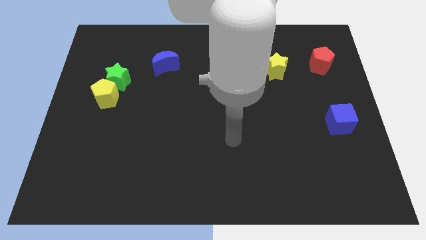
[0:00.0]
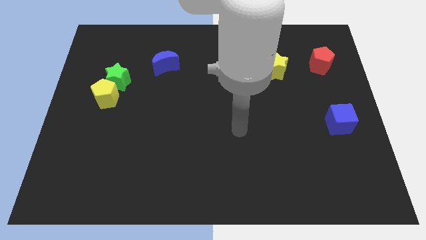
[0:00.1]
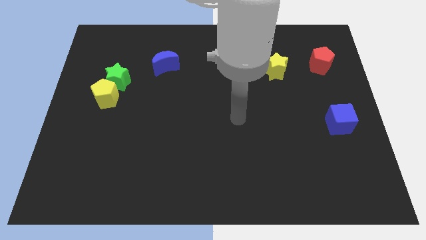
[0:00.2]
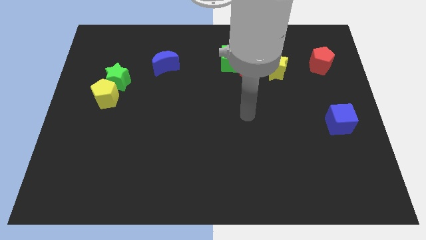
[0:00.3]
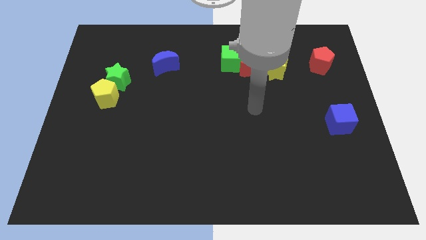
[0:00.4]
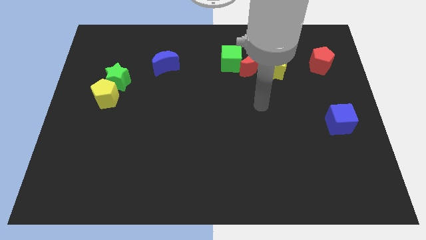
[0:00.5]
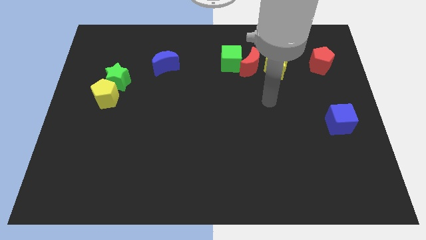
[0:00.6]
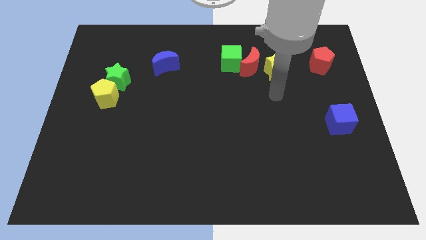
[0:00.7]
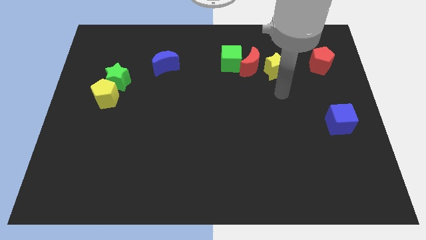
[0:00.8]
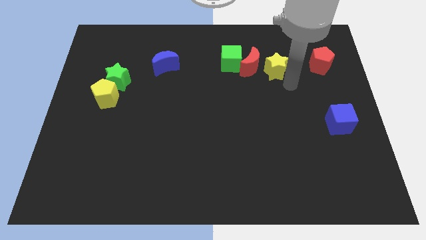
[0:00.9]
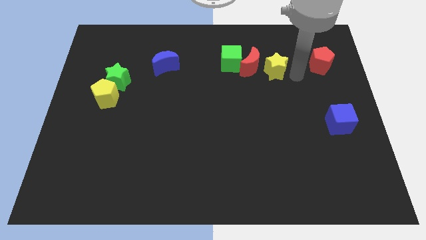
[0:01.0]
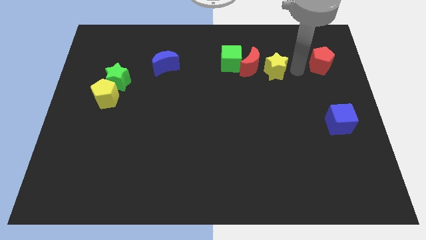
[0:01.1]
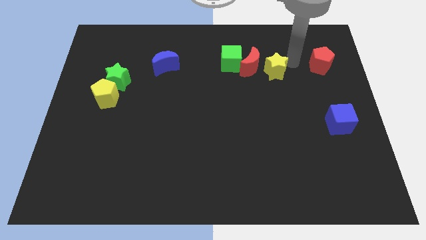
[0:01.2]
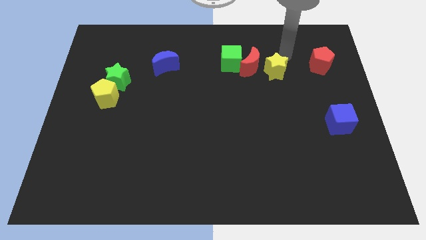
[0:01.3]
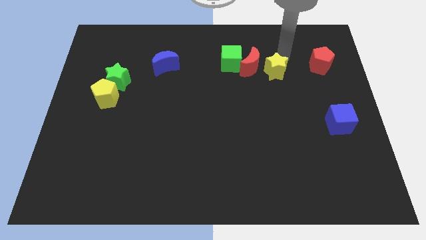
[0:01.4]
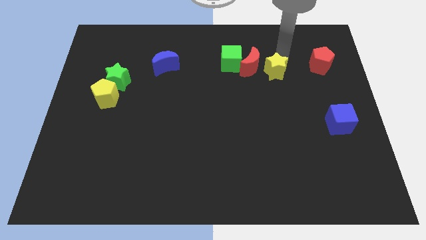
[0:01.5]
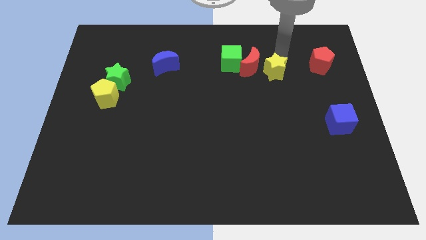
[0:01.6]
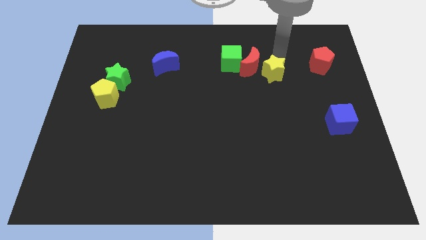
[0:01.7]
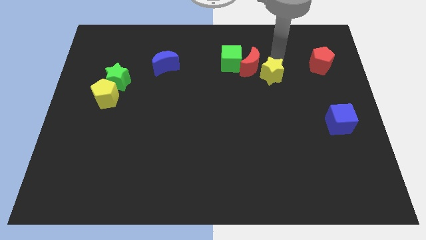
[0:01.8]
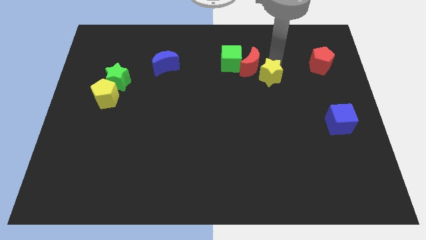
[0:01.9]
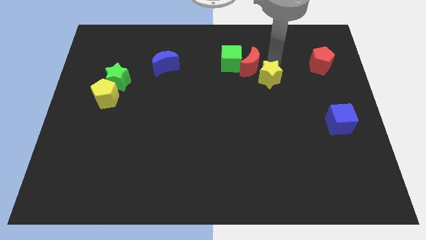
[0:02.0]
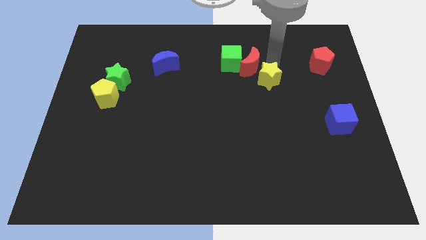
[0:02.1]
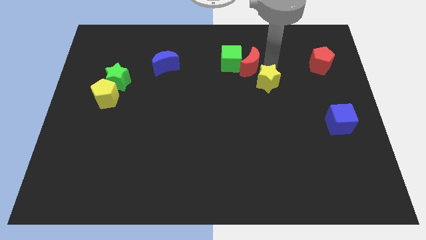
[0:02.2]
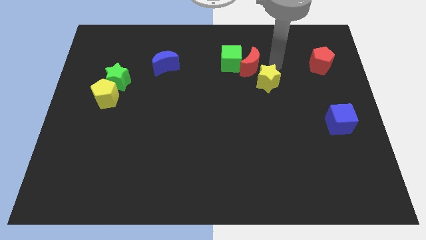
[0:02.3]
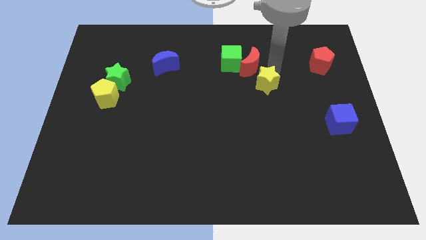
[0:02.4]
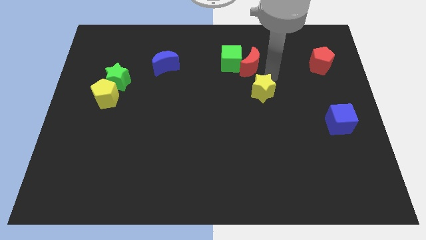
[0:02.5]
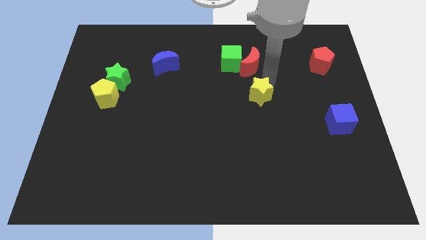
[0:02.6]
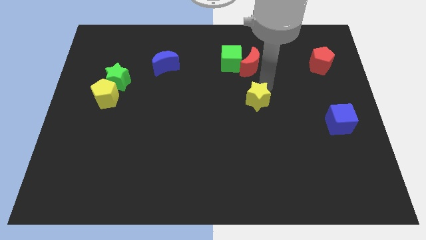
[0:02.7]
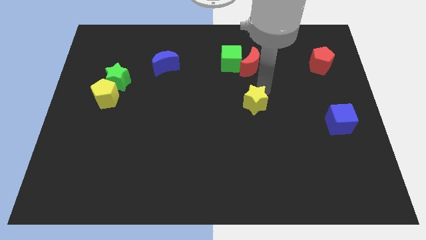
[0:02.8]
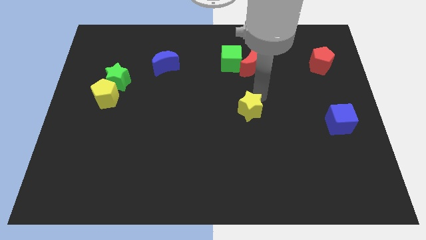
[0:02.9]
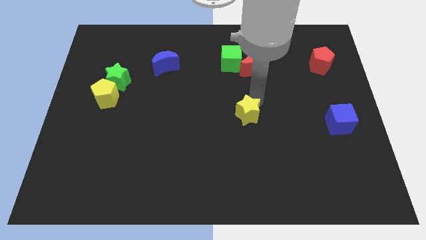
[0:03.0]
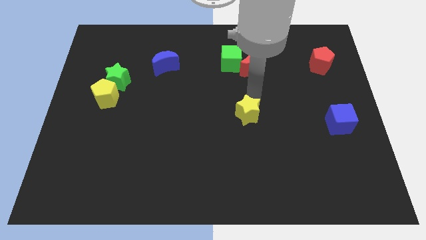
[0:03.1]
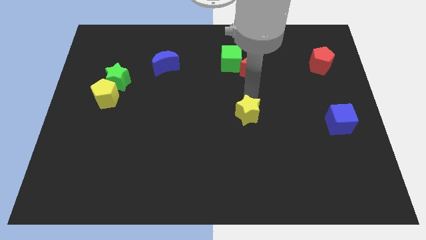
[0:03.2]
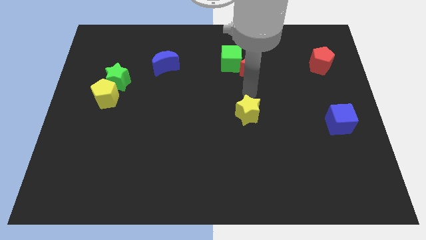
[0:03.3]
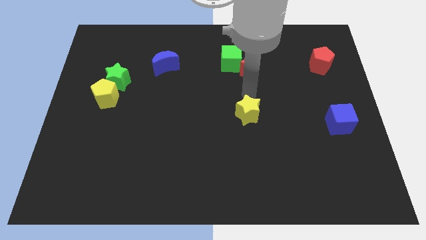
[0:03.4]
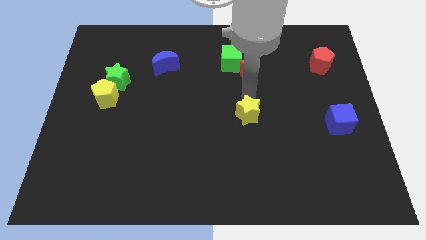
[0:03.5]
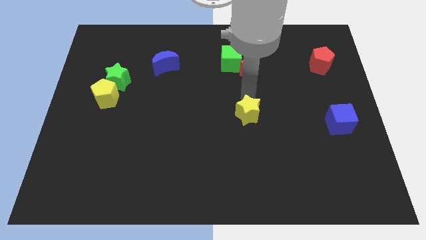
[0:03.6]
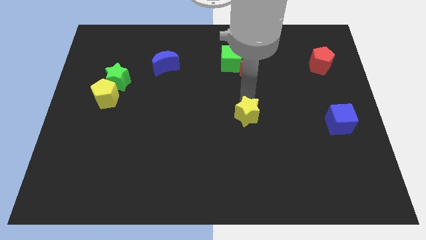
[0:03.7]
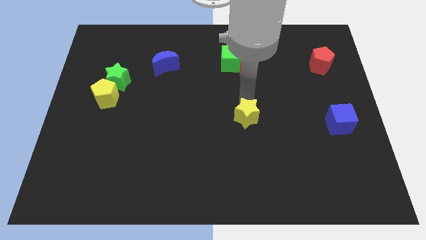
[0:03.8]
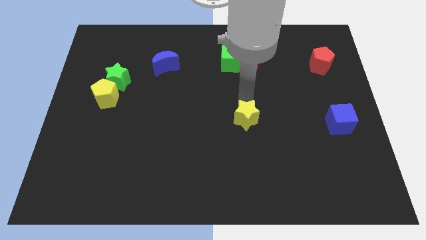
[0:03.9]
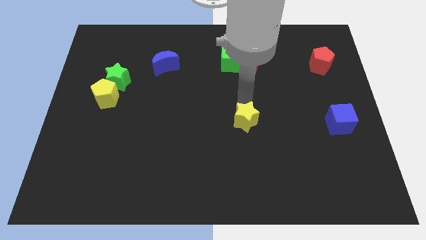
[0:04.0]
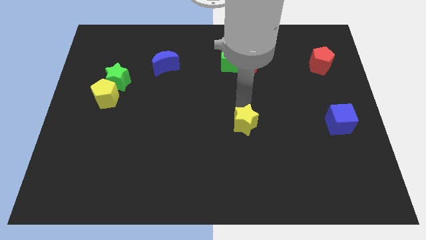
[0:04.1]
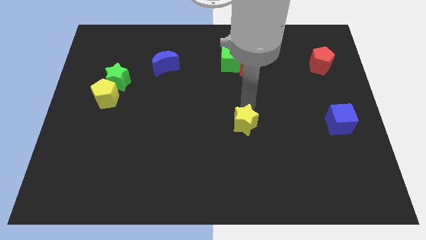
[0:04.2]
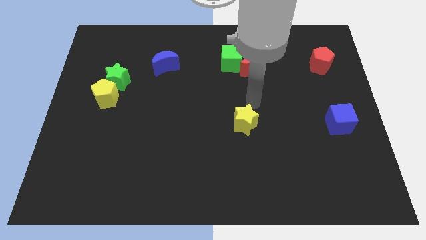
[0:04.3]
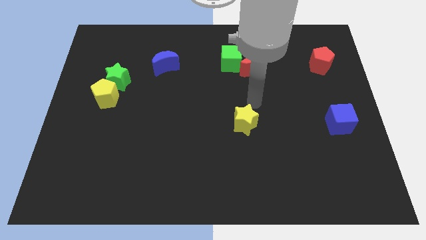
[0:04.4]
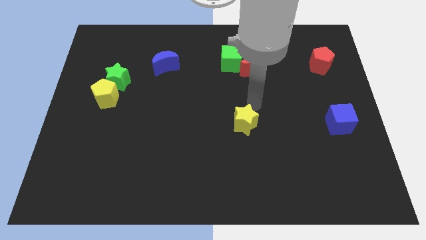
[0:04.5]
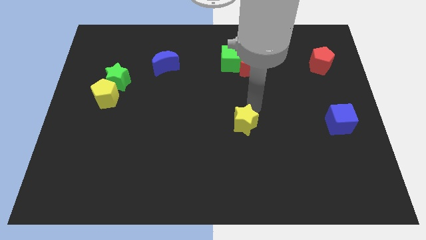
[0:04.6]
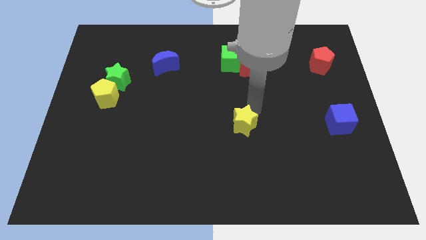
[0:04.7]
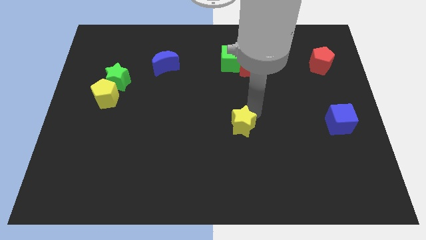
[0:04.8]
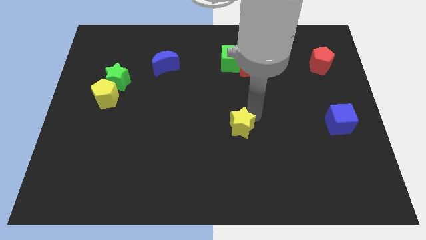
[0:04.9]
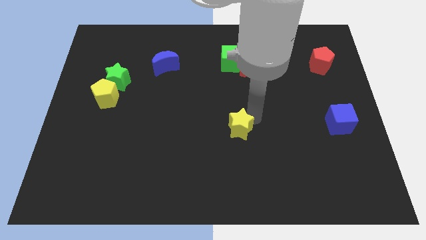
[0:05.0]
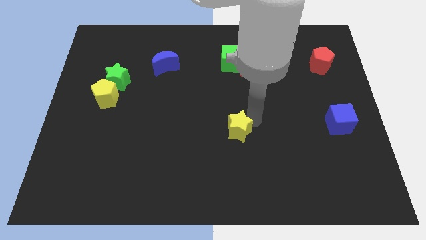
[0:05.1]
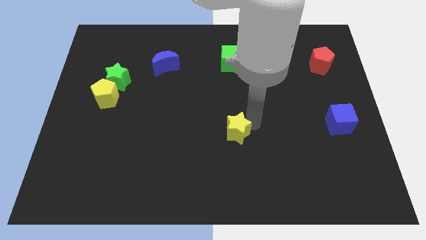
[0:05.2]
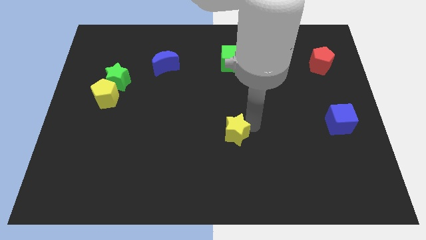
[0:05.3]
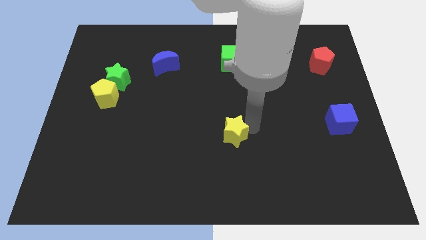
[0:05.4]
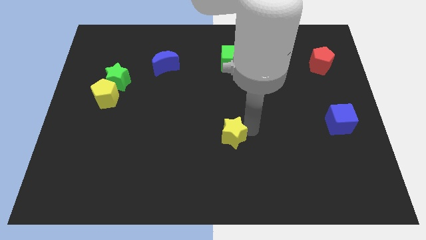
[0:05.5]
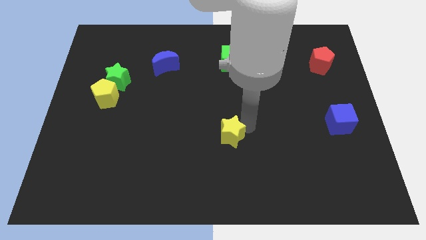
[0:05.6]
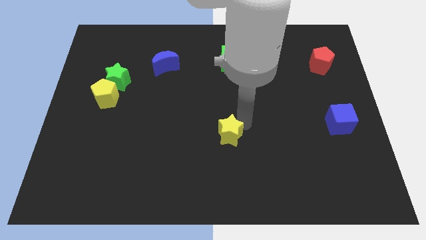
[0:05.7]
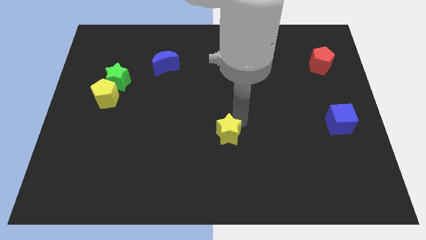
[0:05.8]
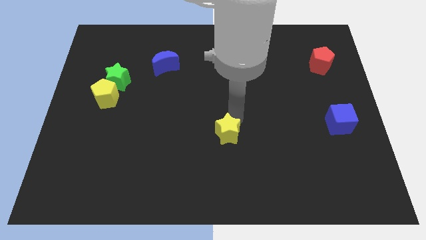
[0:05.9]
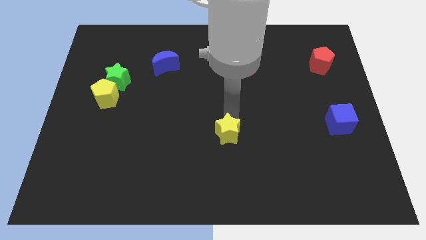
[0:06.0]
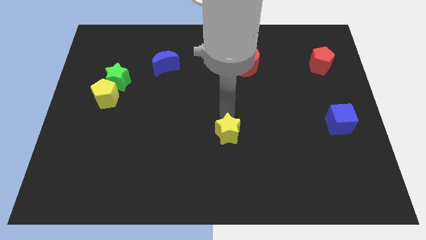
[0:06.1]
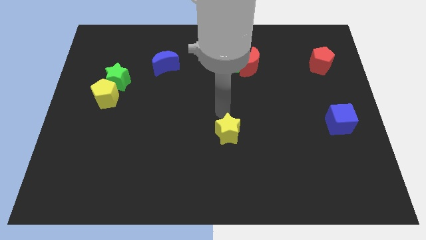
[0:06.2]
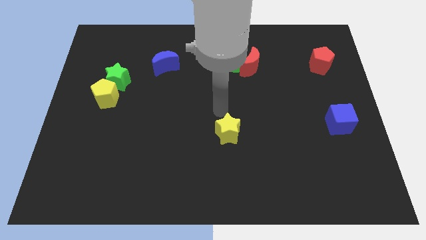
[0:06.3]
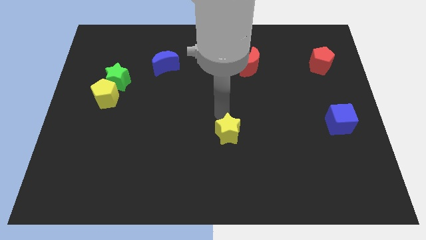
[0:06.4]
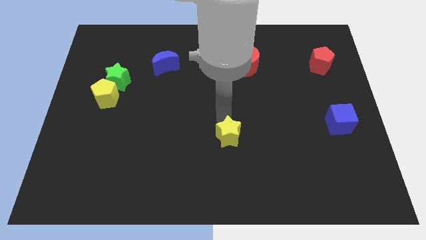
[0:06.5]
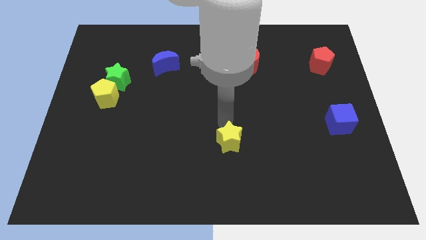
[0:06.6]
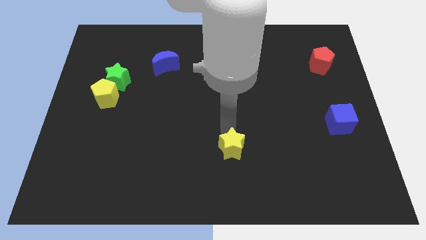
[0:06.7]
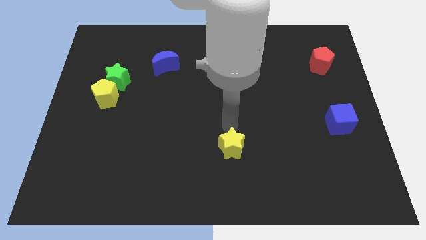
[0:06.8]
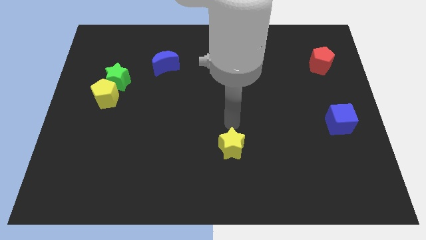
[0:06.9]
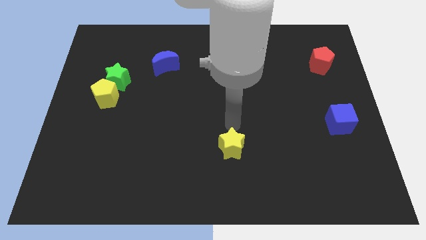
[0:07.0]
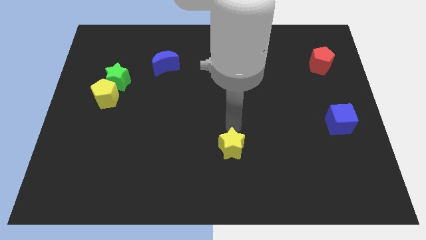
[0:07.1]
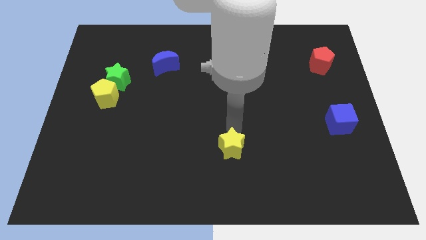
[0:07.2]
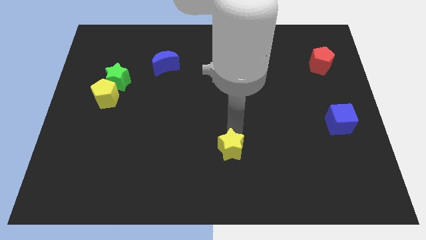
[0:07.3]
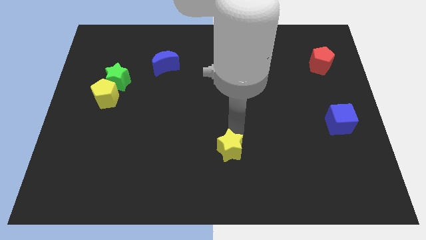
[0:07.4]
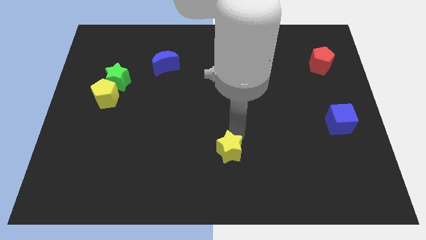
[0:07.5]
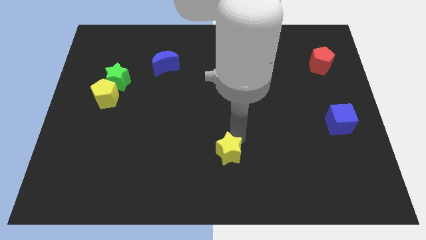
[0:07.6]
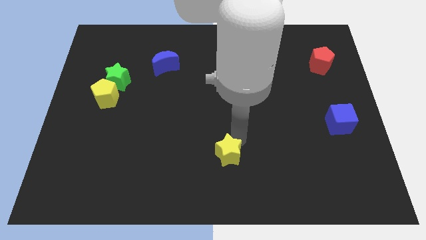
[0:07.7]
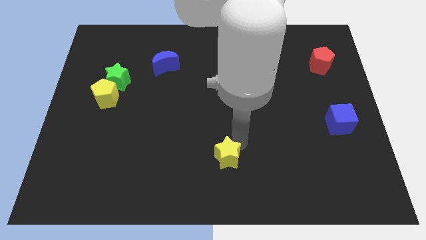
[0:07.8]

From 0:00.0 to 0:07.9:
push the yellow star to the bottom side

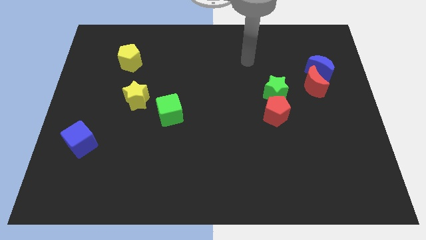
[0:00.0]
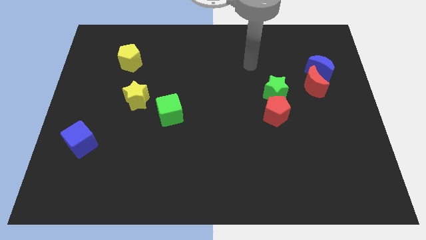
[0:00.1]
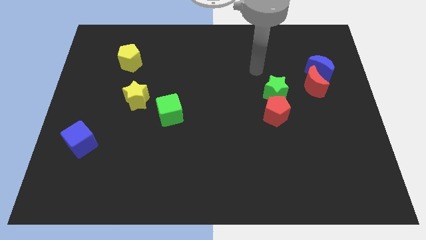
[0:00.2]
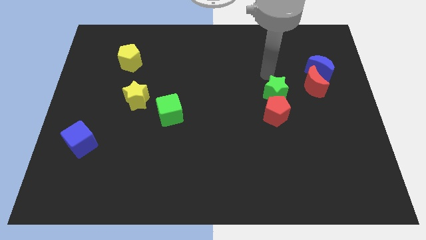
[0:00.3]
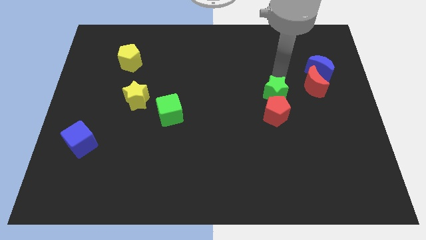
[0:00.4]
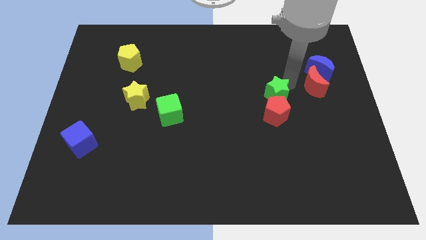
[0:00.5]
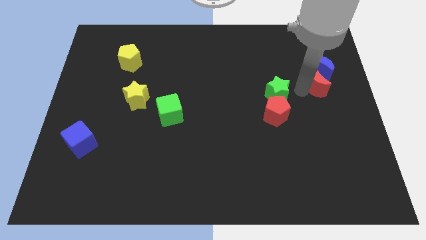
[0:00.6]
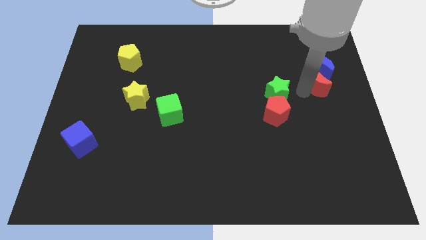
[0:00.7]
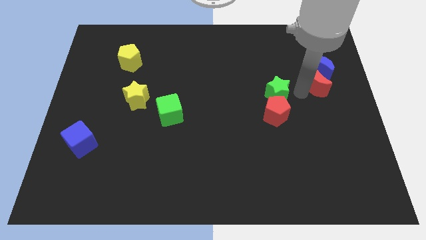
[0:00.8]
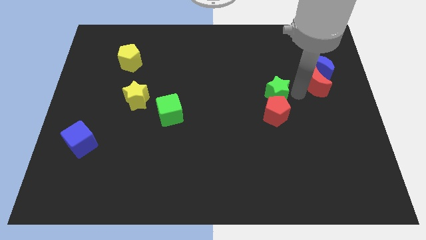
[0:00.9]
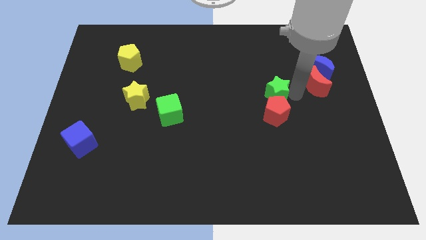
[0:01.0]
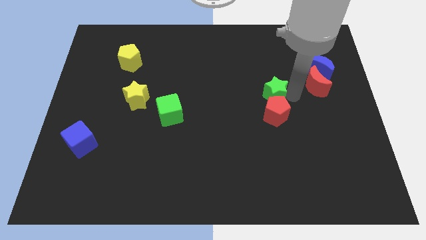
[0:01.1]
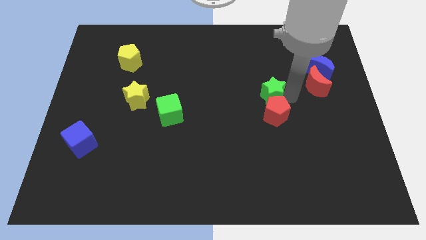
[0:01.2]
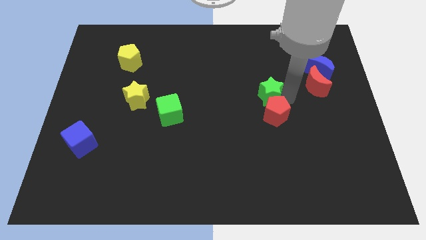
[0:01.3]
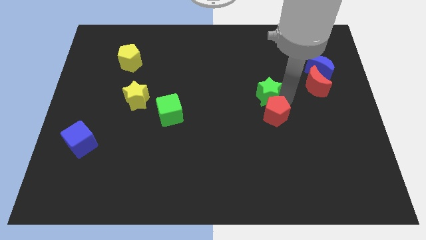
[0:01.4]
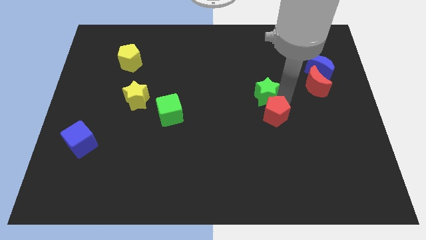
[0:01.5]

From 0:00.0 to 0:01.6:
push the green star to the center of the board
